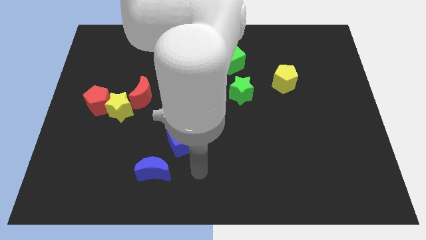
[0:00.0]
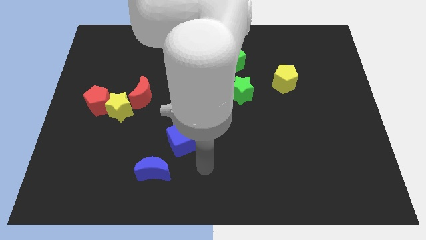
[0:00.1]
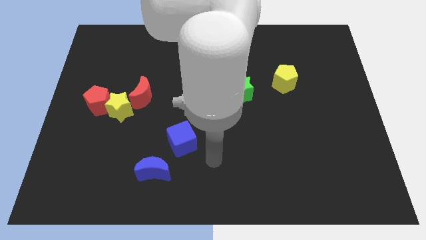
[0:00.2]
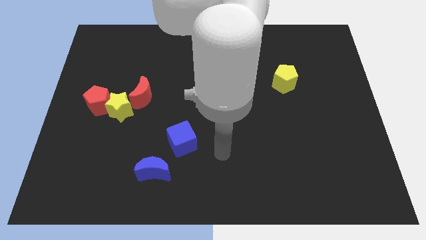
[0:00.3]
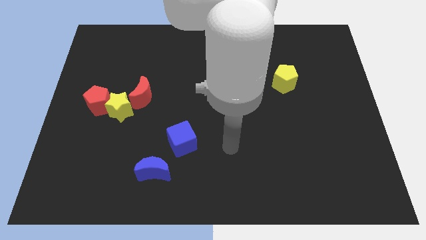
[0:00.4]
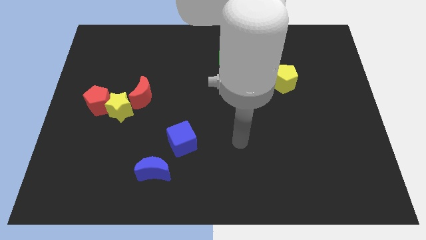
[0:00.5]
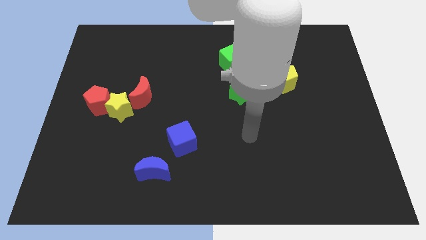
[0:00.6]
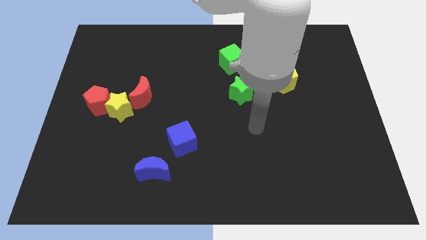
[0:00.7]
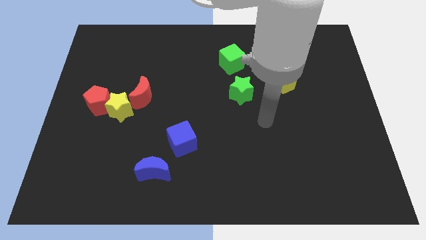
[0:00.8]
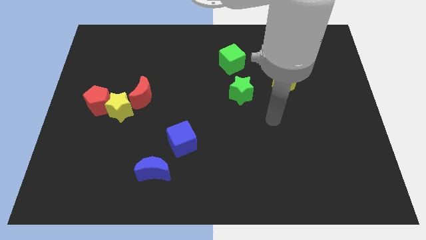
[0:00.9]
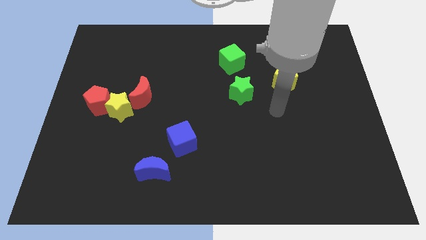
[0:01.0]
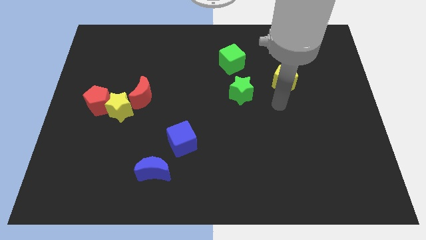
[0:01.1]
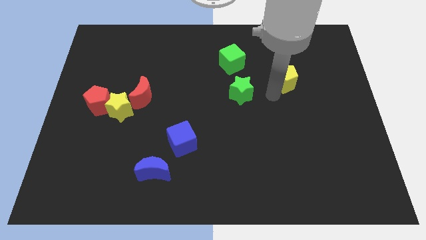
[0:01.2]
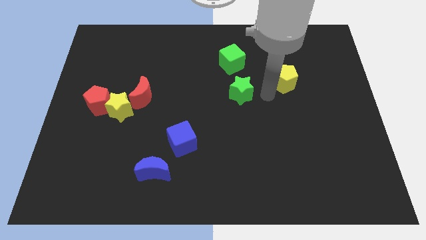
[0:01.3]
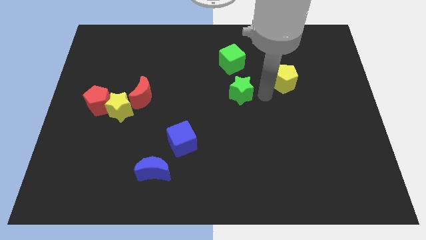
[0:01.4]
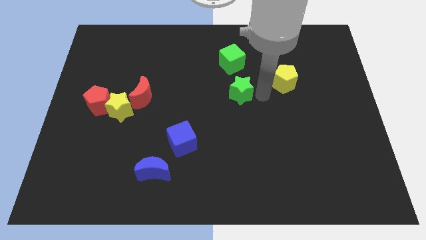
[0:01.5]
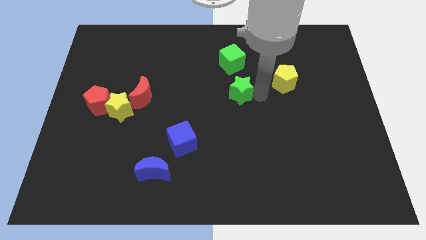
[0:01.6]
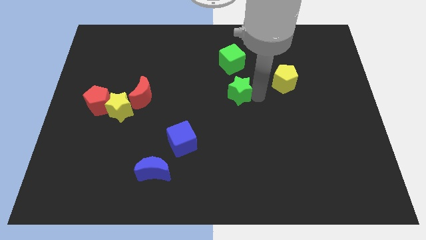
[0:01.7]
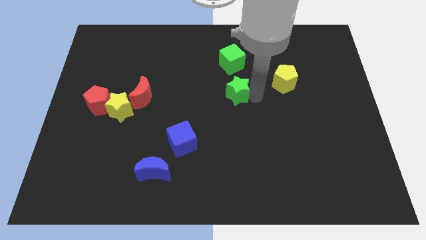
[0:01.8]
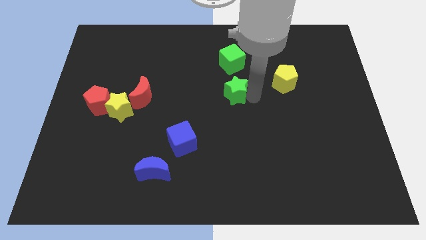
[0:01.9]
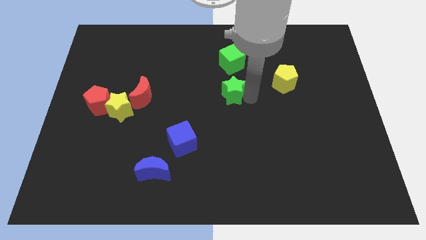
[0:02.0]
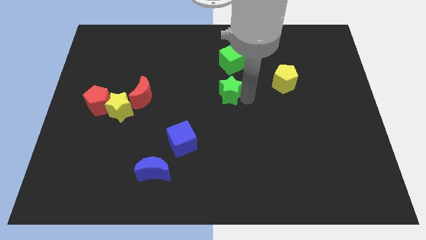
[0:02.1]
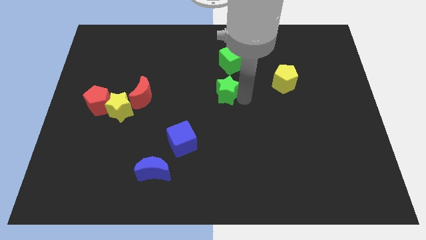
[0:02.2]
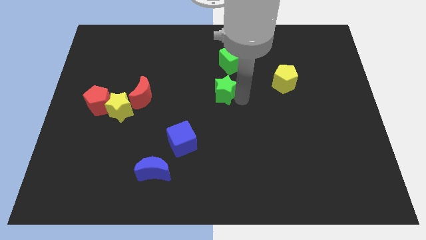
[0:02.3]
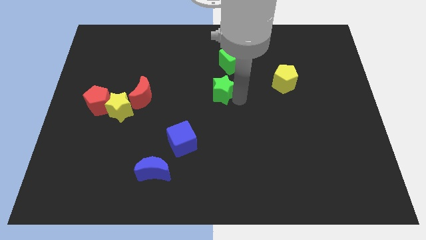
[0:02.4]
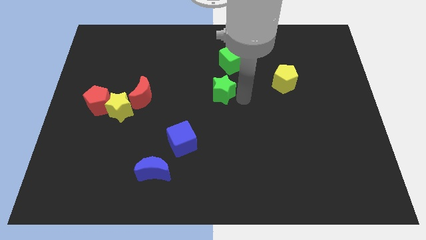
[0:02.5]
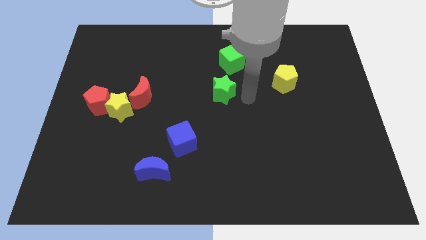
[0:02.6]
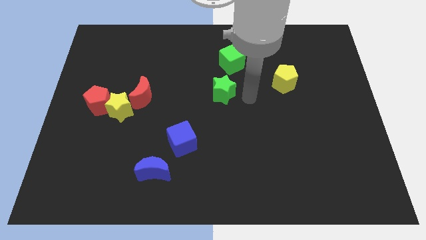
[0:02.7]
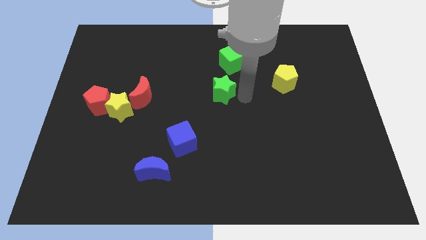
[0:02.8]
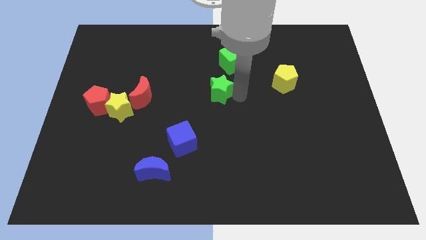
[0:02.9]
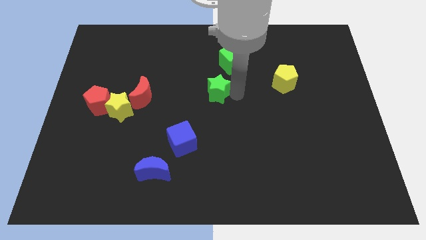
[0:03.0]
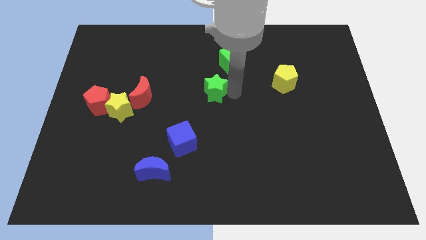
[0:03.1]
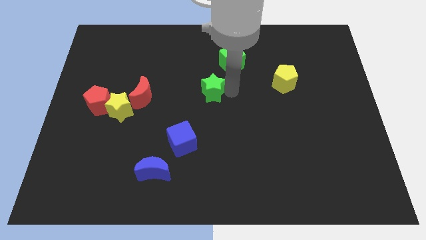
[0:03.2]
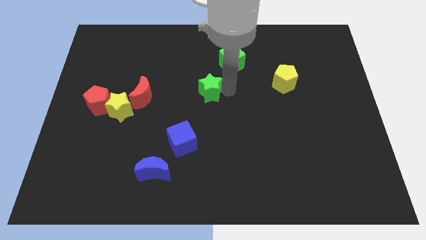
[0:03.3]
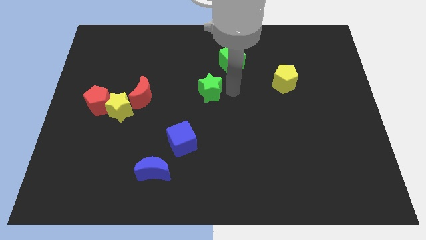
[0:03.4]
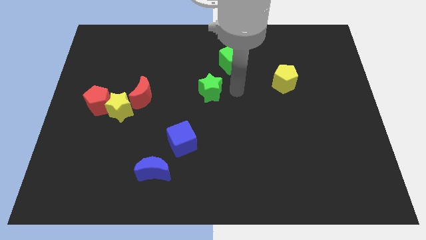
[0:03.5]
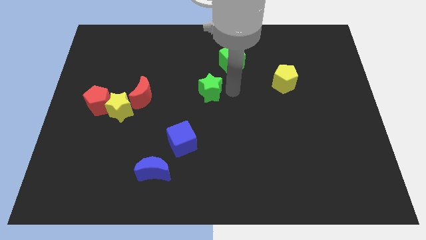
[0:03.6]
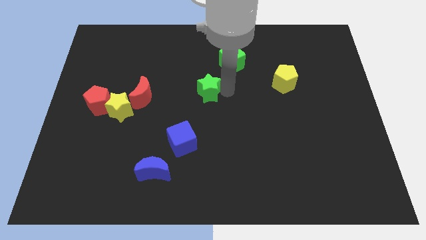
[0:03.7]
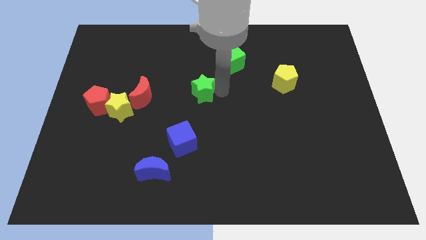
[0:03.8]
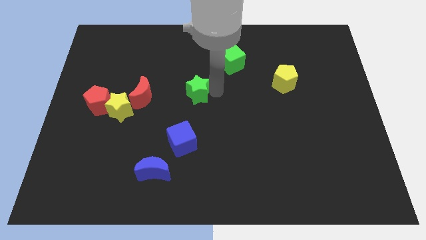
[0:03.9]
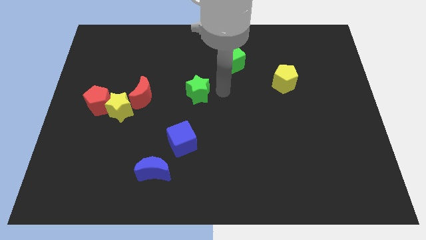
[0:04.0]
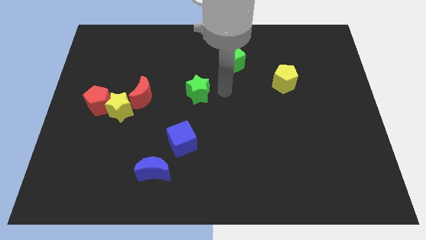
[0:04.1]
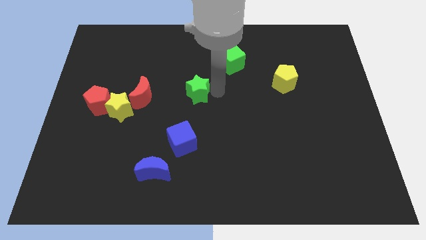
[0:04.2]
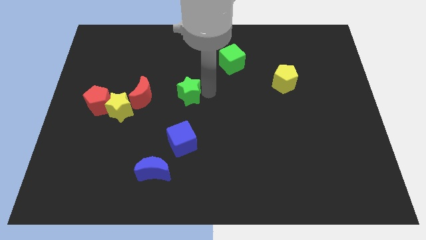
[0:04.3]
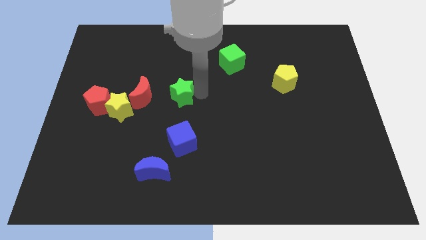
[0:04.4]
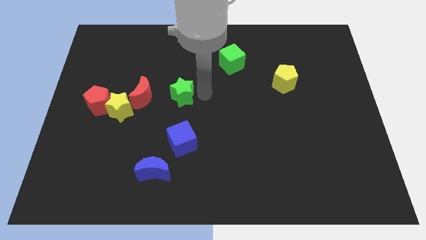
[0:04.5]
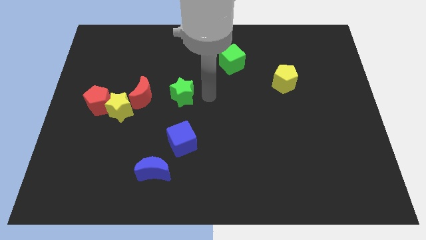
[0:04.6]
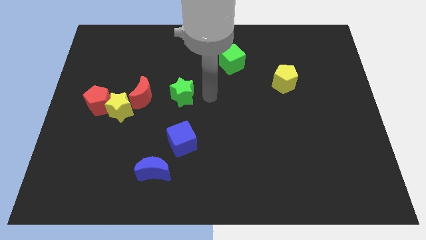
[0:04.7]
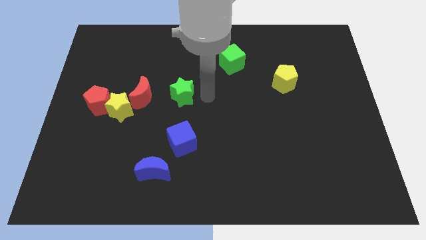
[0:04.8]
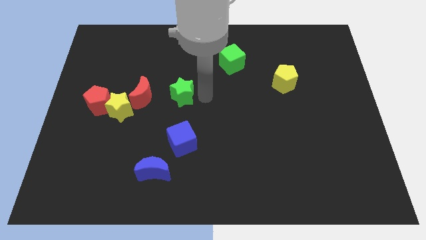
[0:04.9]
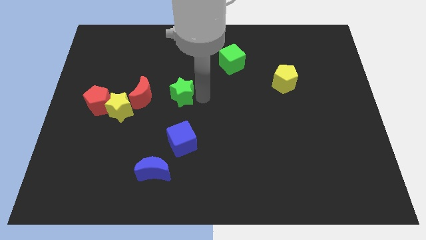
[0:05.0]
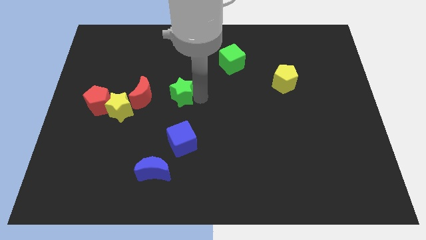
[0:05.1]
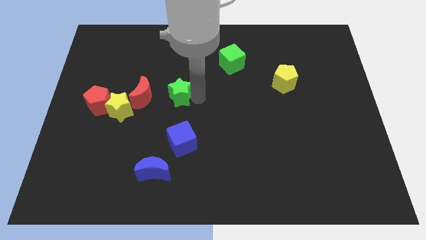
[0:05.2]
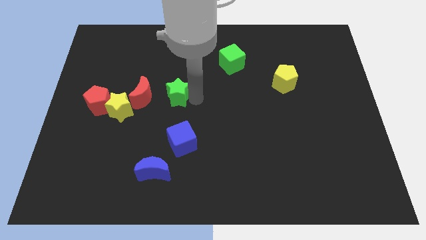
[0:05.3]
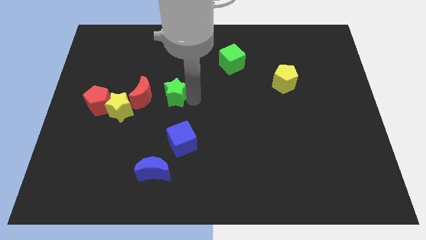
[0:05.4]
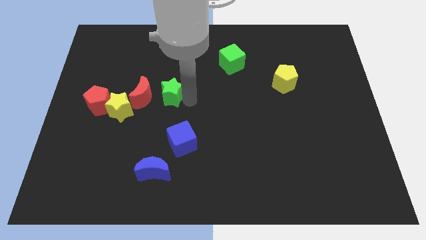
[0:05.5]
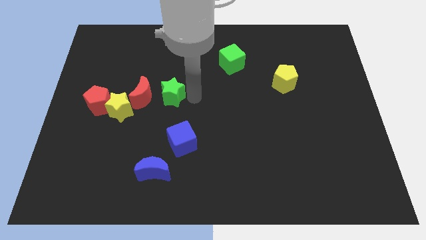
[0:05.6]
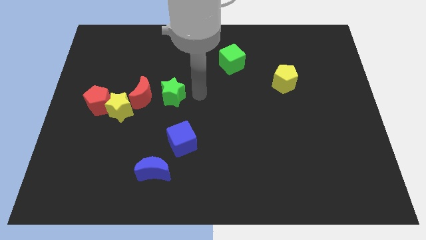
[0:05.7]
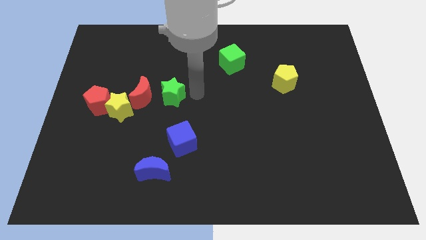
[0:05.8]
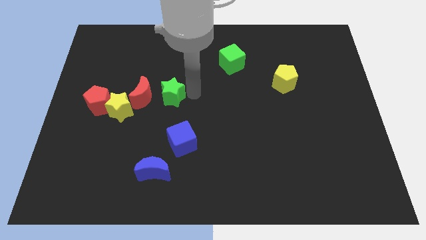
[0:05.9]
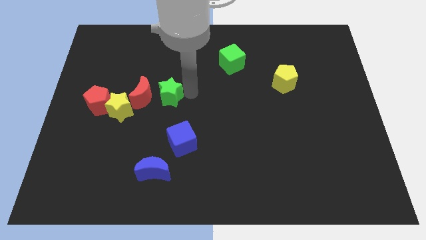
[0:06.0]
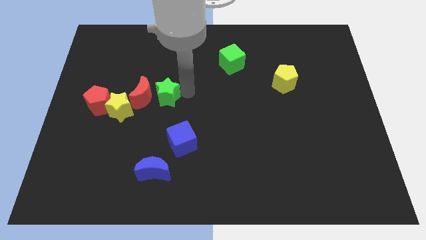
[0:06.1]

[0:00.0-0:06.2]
put the green star close to the red moon

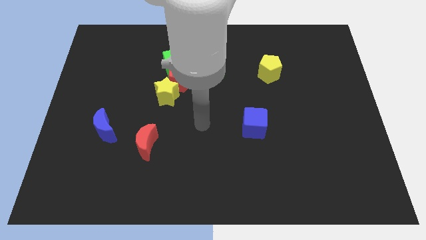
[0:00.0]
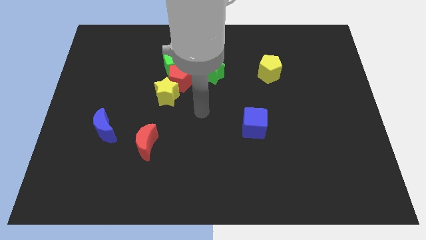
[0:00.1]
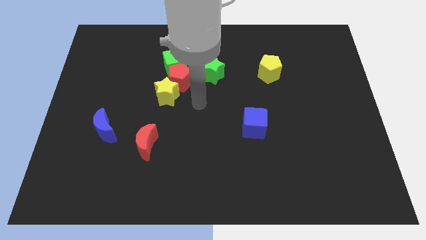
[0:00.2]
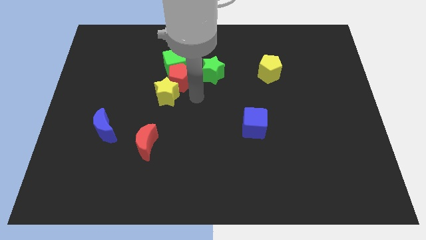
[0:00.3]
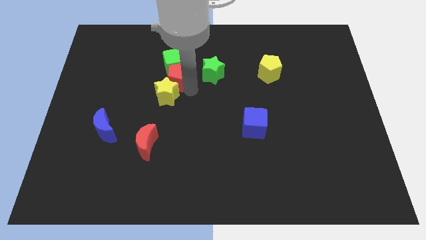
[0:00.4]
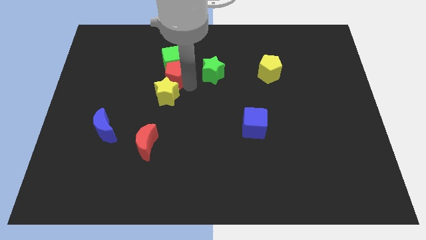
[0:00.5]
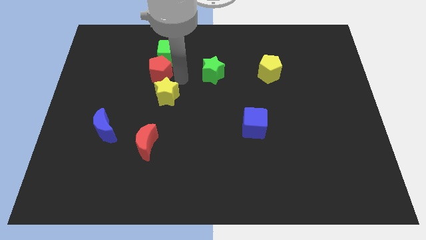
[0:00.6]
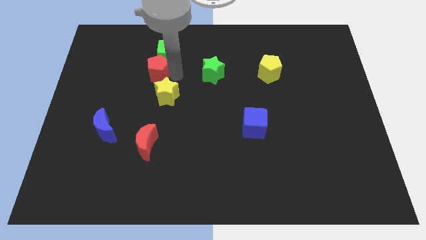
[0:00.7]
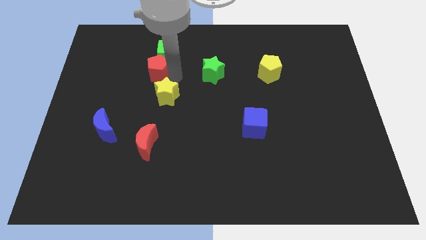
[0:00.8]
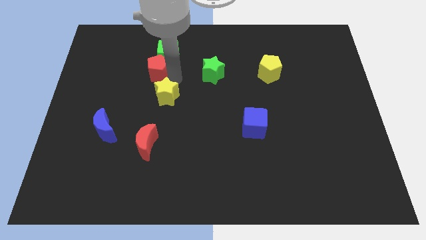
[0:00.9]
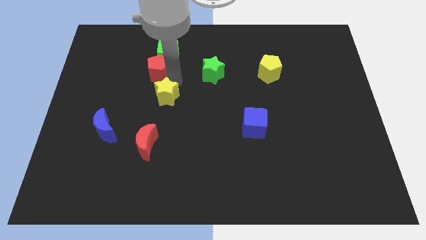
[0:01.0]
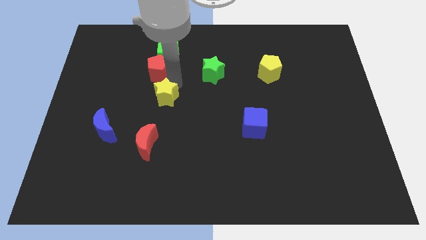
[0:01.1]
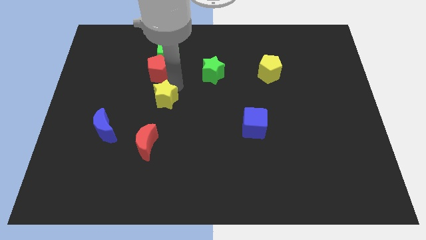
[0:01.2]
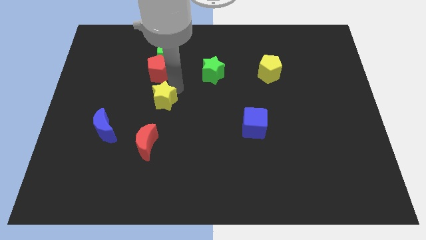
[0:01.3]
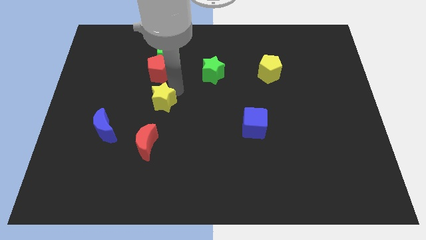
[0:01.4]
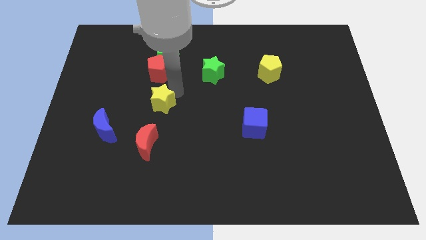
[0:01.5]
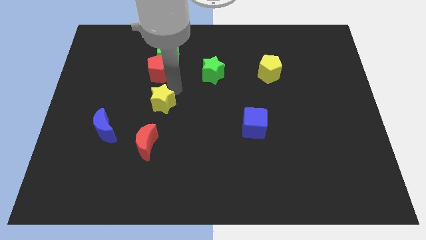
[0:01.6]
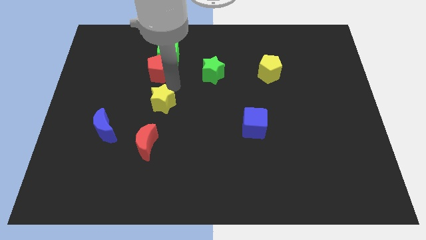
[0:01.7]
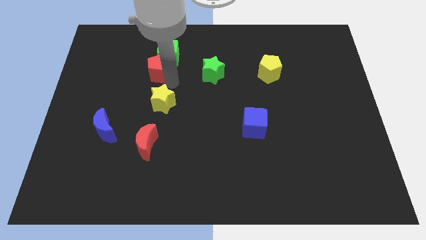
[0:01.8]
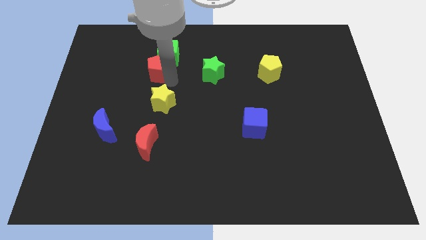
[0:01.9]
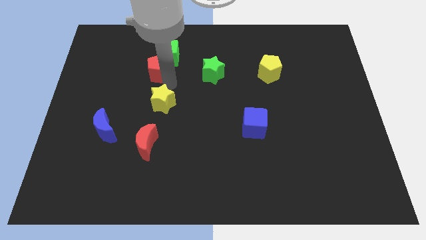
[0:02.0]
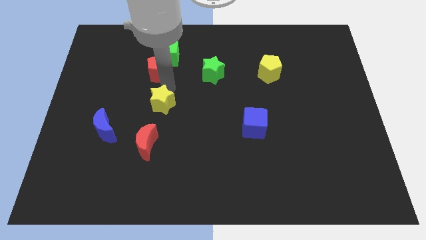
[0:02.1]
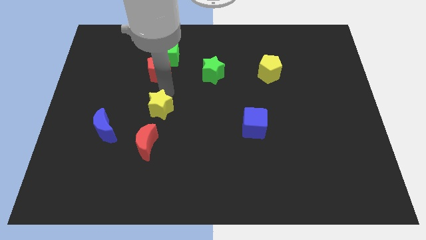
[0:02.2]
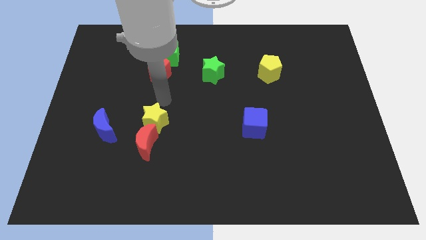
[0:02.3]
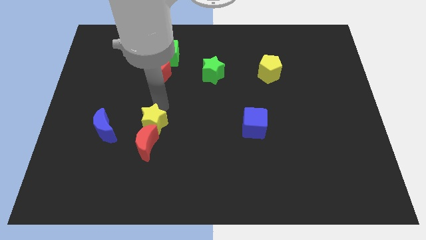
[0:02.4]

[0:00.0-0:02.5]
move the yellow star towards the red moon
